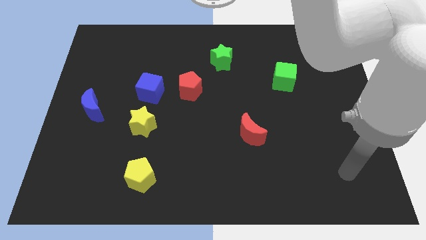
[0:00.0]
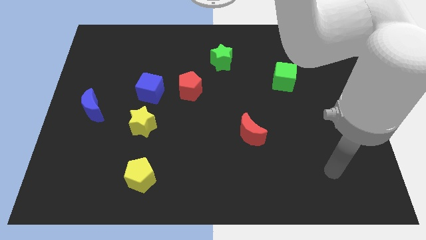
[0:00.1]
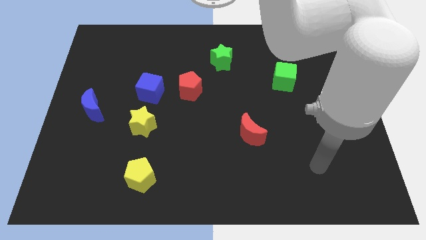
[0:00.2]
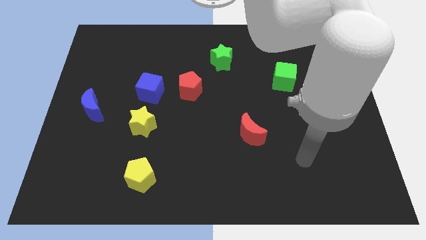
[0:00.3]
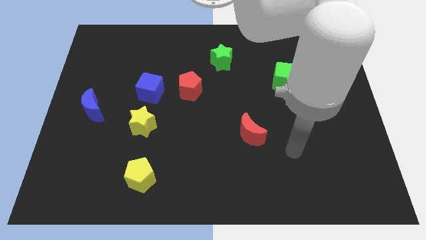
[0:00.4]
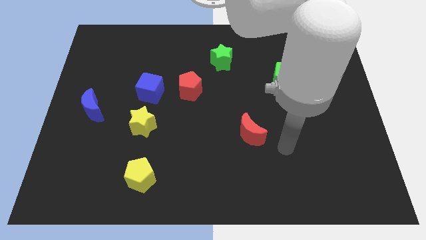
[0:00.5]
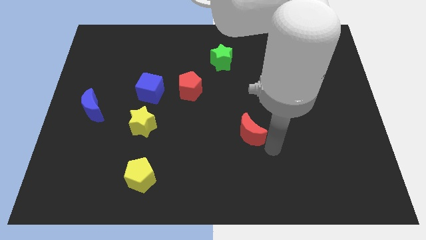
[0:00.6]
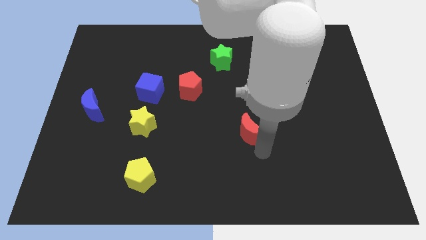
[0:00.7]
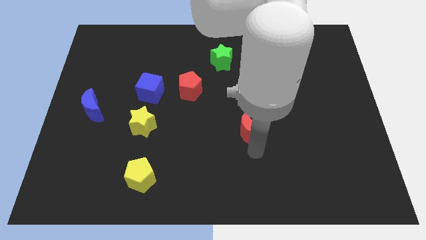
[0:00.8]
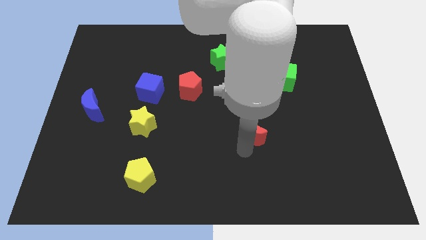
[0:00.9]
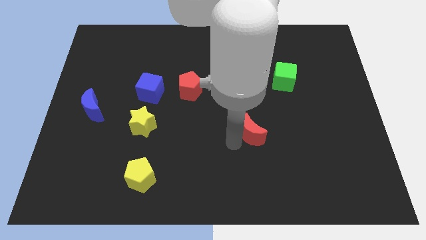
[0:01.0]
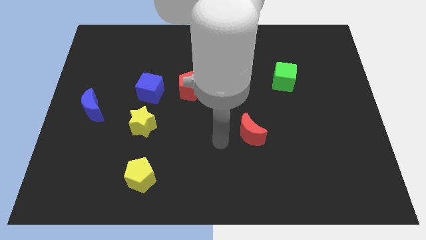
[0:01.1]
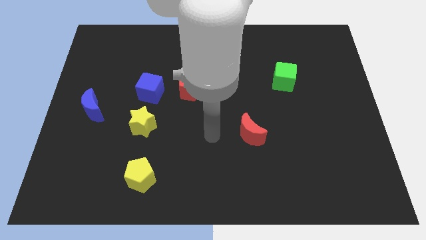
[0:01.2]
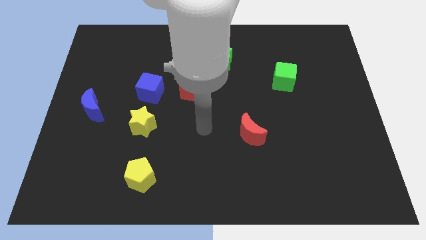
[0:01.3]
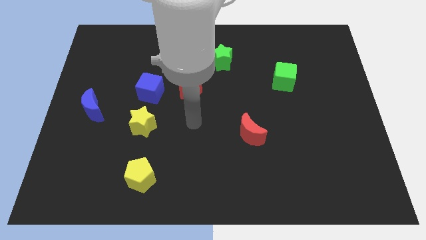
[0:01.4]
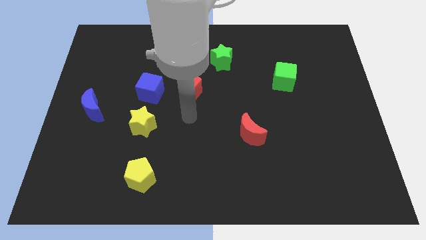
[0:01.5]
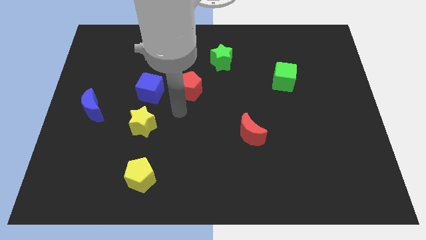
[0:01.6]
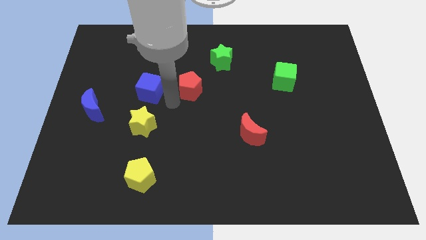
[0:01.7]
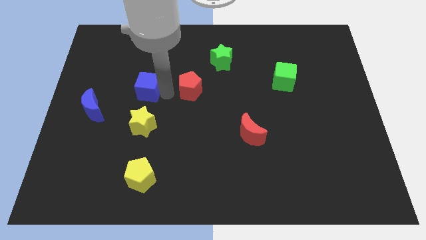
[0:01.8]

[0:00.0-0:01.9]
move the red pentagon away from the blue cube

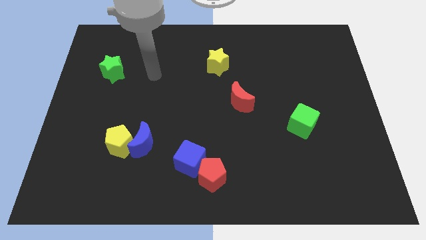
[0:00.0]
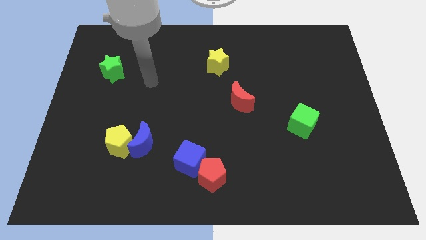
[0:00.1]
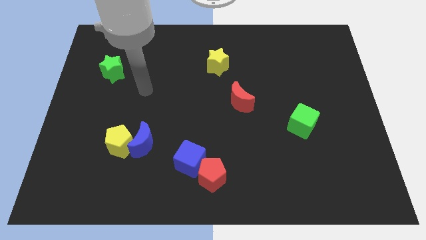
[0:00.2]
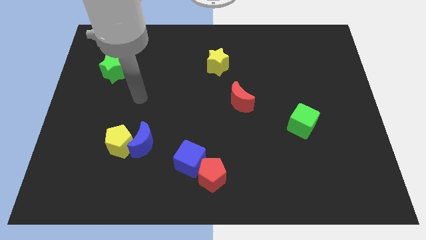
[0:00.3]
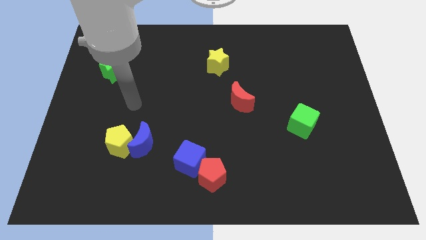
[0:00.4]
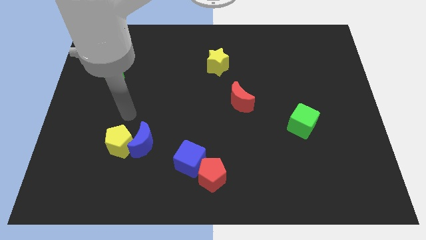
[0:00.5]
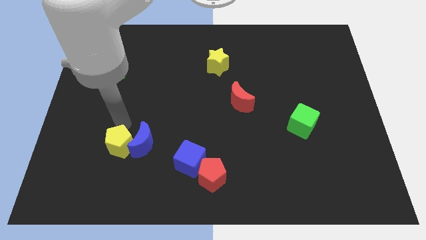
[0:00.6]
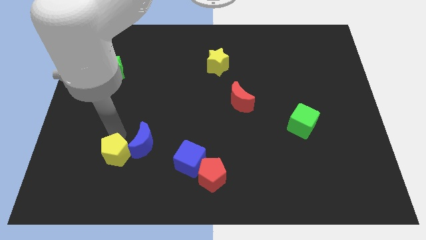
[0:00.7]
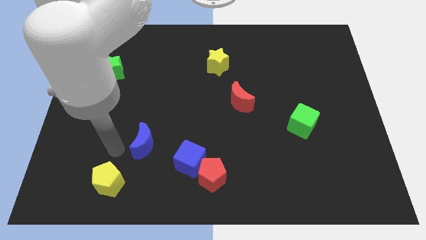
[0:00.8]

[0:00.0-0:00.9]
pull the blue moon apart from the yellow pentagon

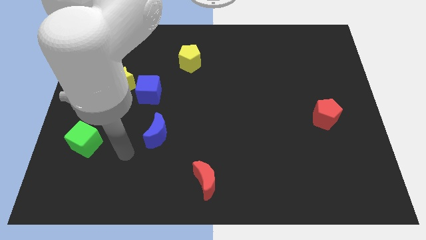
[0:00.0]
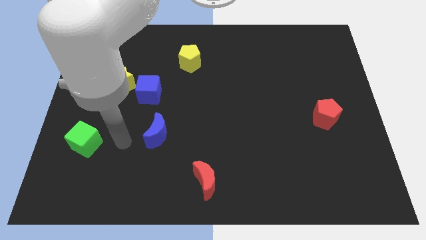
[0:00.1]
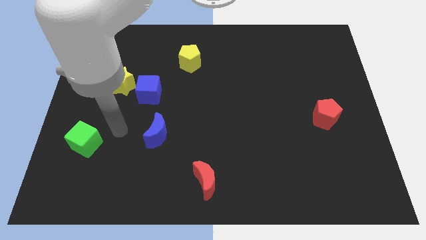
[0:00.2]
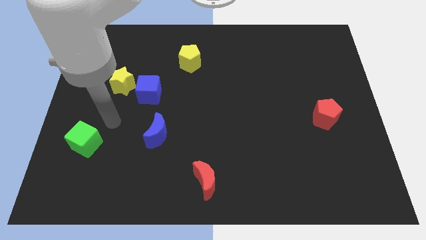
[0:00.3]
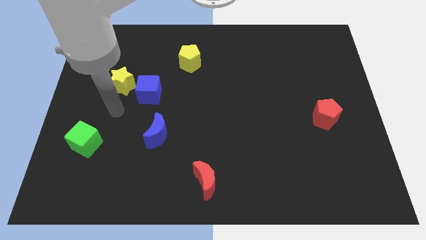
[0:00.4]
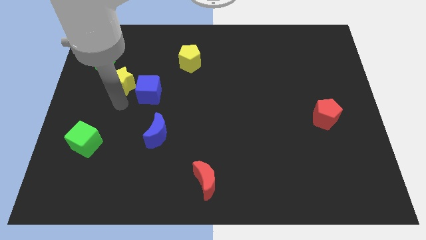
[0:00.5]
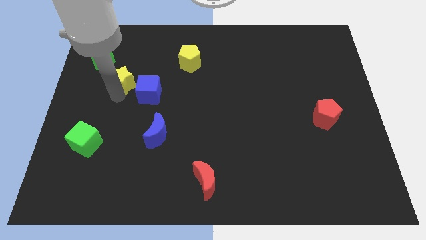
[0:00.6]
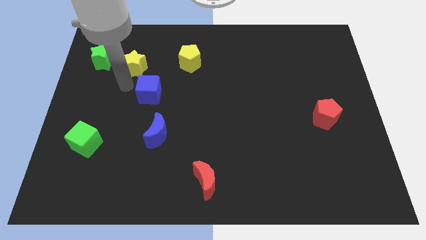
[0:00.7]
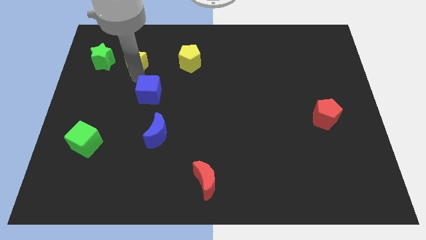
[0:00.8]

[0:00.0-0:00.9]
separate the blue cube from the yellow star

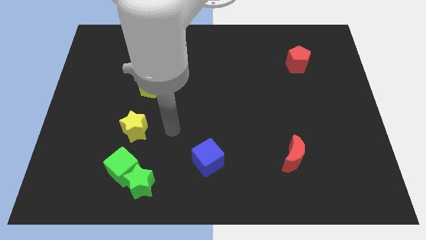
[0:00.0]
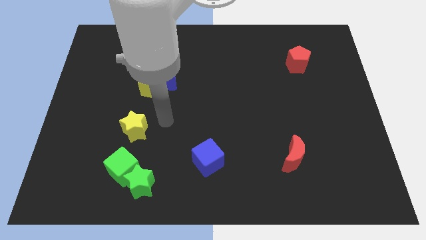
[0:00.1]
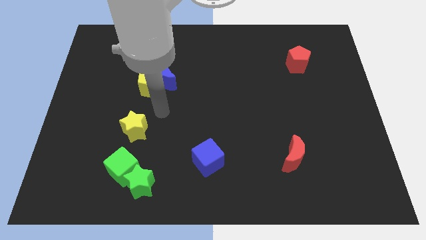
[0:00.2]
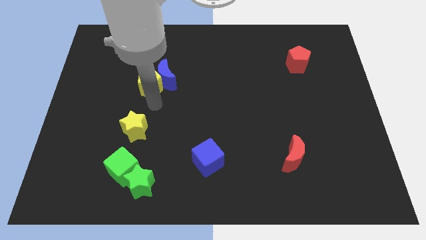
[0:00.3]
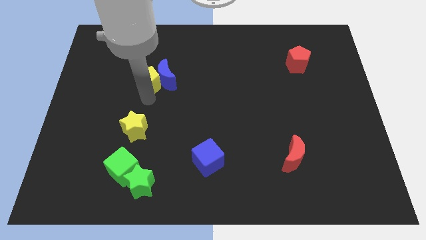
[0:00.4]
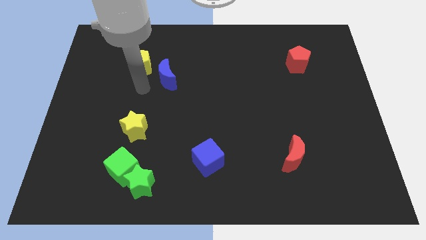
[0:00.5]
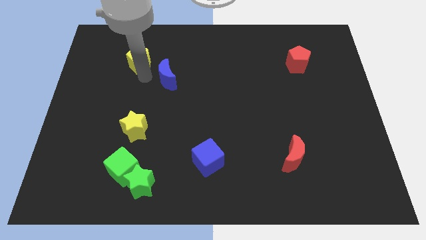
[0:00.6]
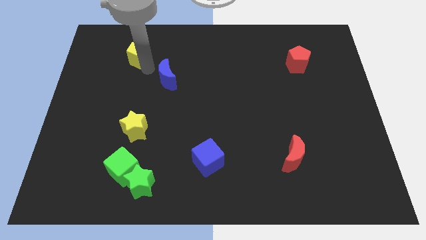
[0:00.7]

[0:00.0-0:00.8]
move the blue moon away from the yellow pentagon

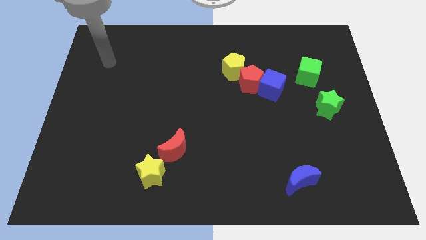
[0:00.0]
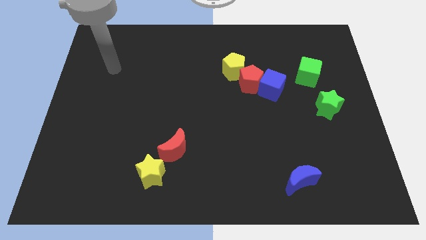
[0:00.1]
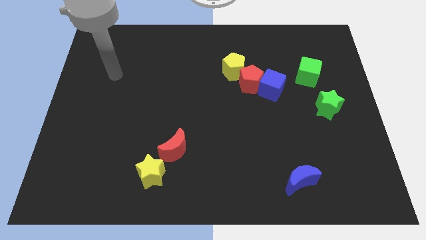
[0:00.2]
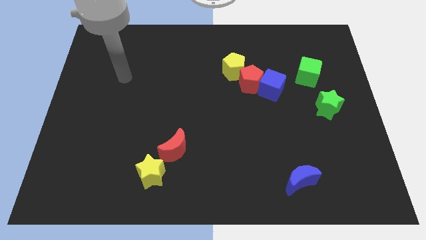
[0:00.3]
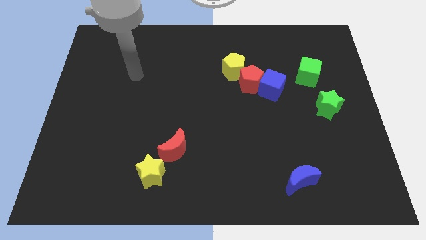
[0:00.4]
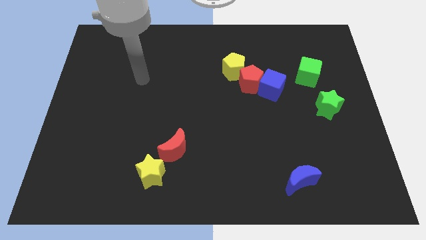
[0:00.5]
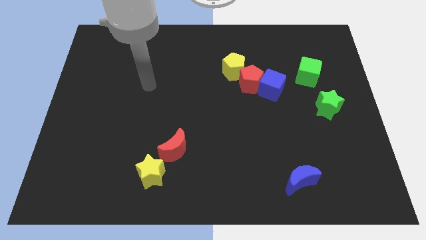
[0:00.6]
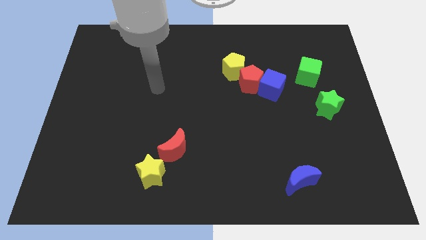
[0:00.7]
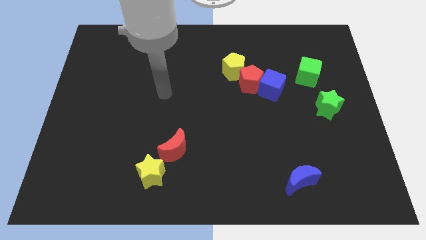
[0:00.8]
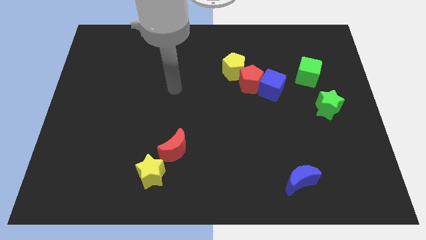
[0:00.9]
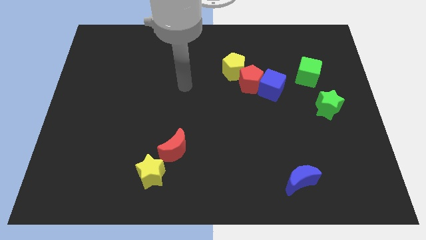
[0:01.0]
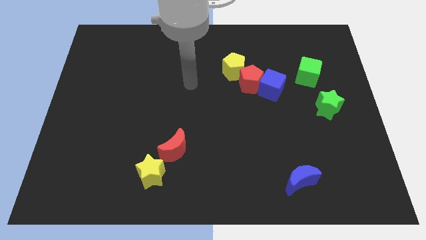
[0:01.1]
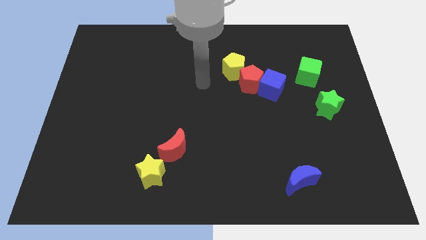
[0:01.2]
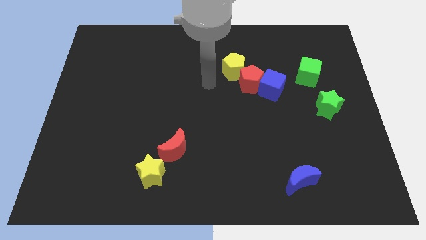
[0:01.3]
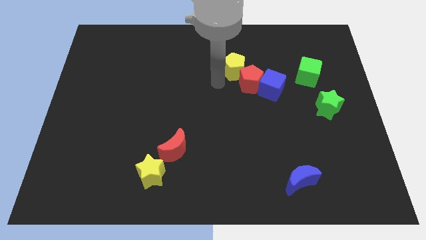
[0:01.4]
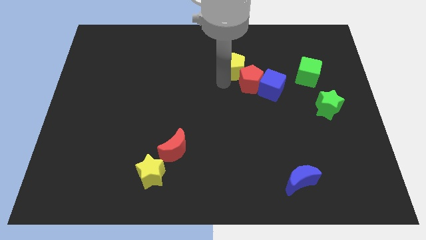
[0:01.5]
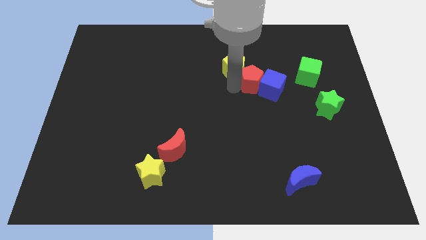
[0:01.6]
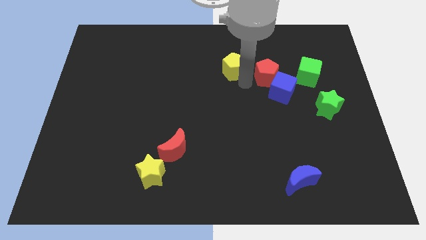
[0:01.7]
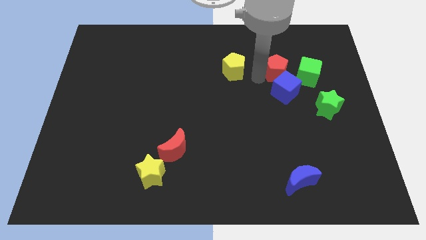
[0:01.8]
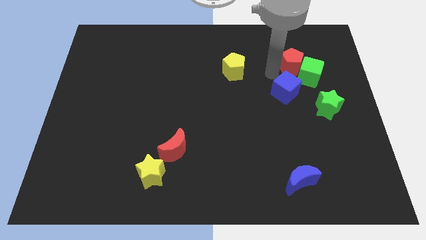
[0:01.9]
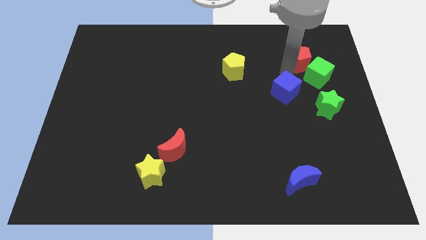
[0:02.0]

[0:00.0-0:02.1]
separate the blue cube from the red pentagon

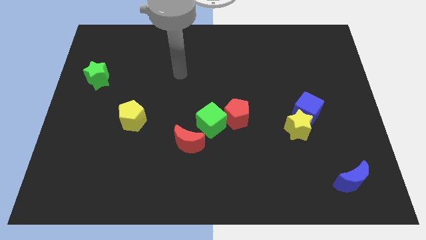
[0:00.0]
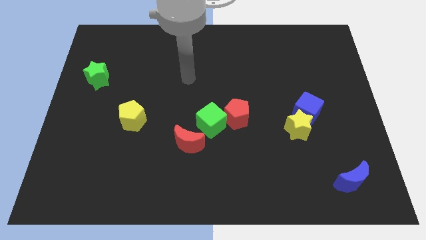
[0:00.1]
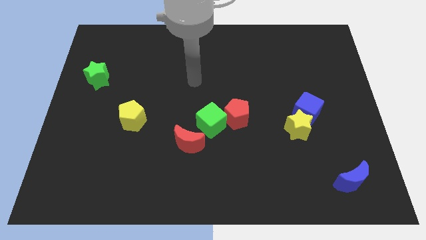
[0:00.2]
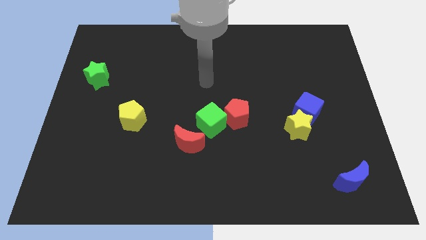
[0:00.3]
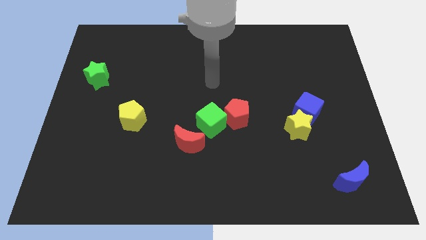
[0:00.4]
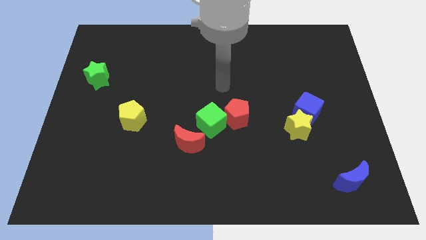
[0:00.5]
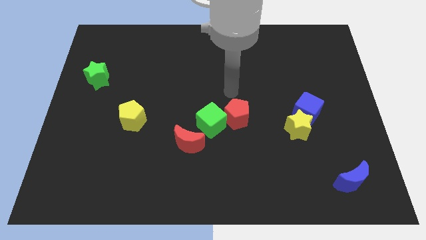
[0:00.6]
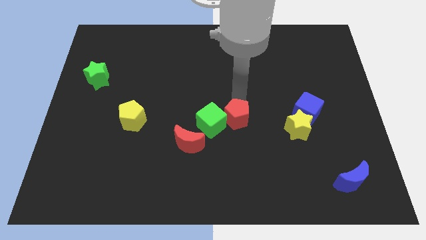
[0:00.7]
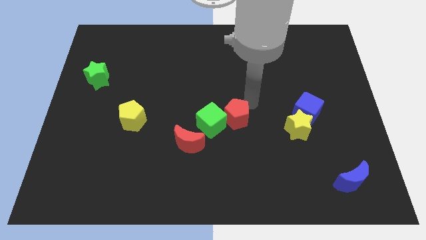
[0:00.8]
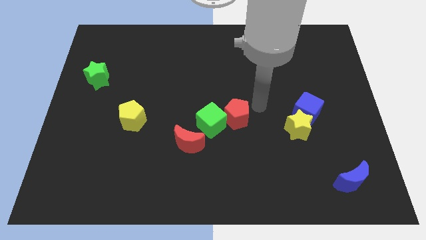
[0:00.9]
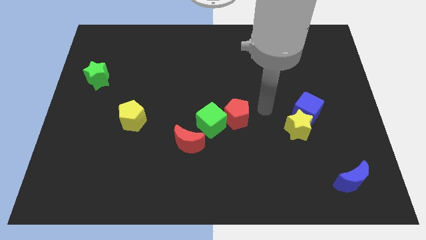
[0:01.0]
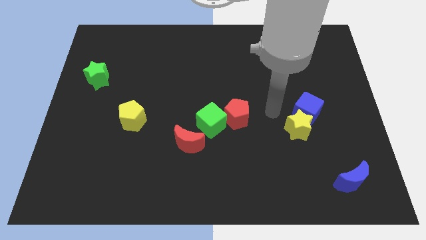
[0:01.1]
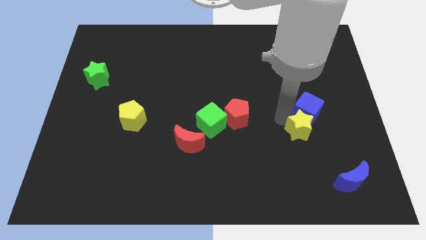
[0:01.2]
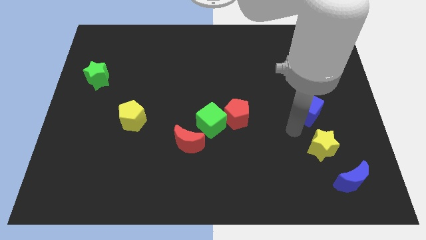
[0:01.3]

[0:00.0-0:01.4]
pull the blue cube apart from the yellow star

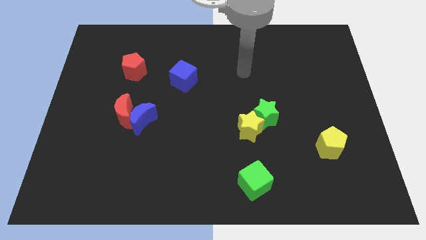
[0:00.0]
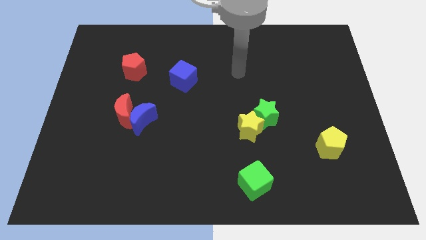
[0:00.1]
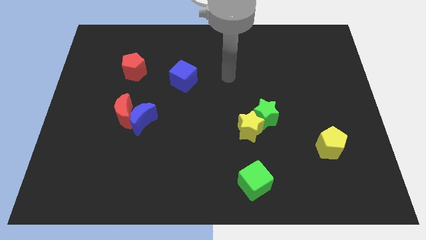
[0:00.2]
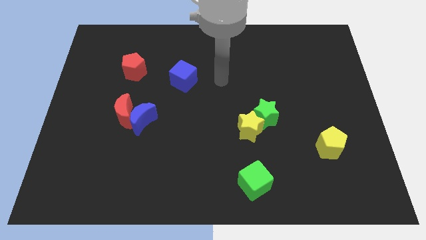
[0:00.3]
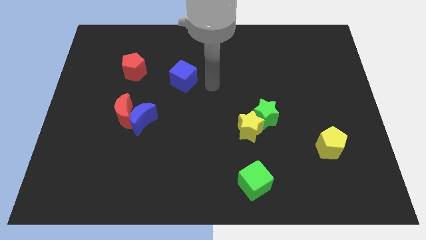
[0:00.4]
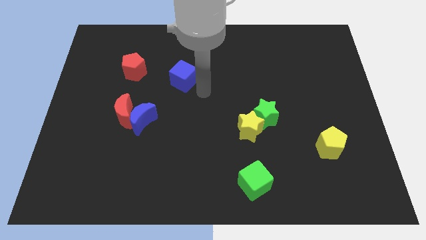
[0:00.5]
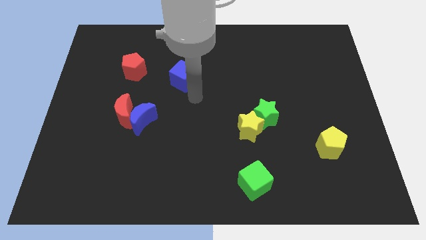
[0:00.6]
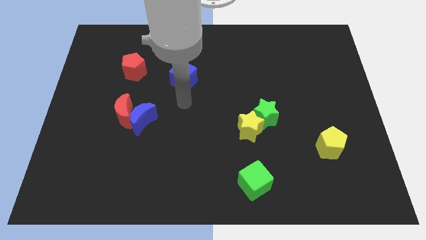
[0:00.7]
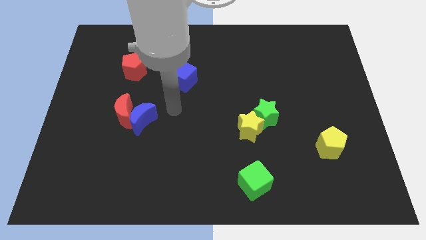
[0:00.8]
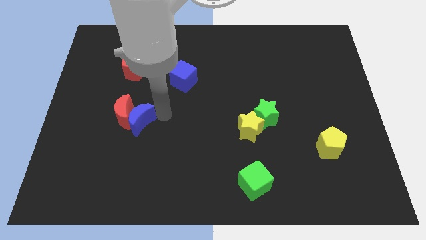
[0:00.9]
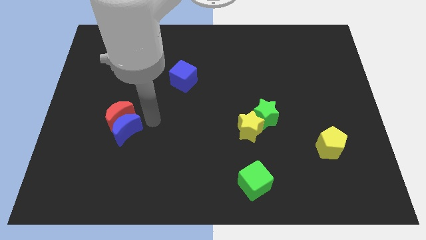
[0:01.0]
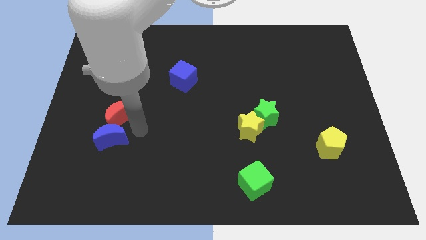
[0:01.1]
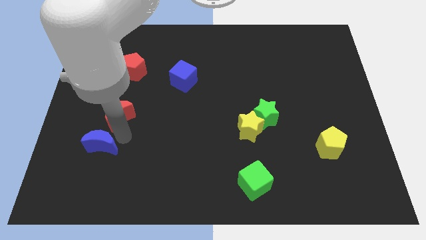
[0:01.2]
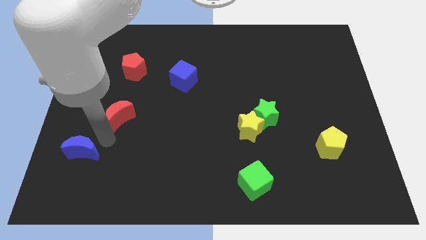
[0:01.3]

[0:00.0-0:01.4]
move the red moon away from the blue moon
